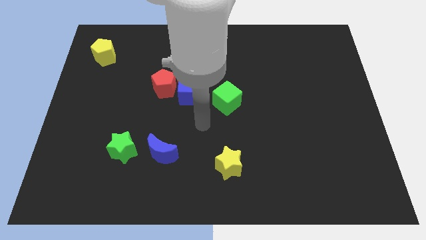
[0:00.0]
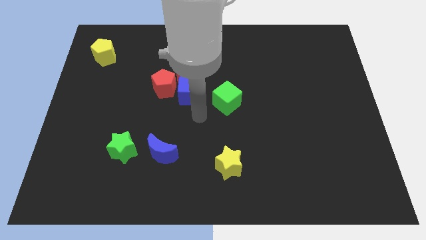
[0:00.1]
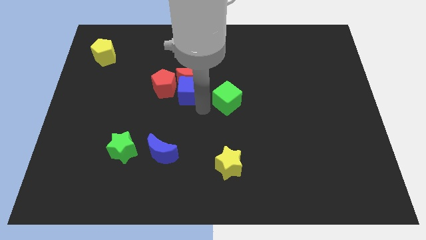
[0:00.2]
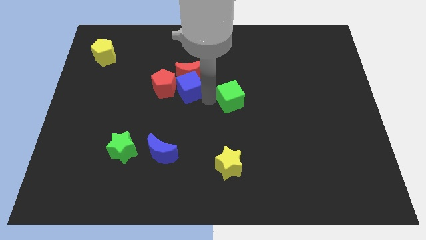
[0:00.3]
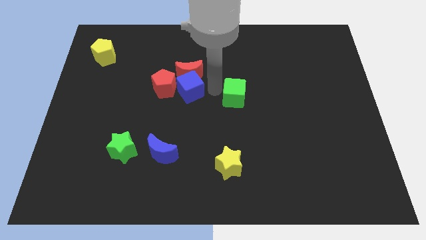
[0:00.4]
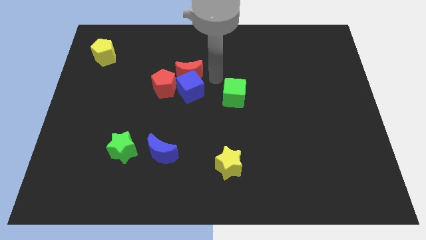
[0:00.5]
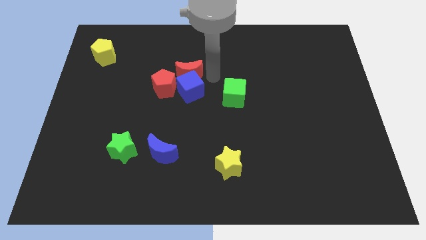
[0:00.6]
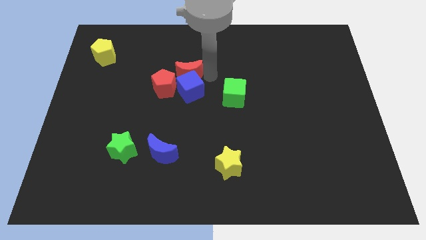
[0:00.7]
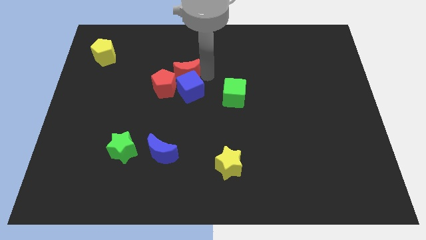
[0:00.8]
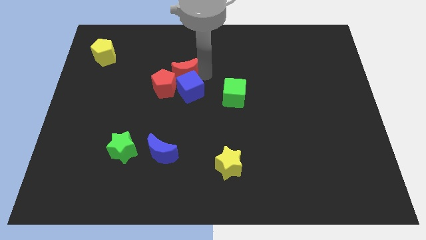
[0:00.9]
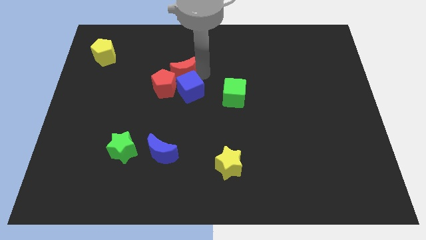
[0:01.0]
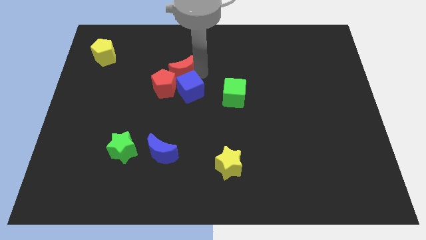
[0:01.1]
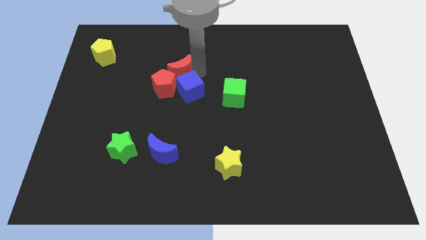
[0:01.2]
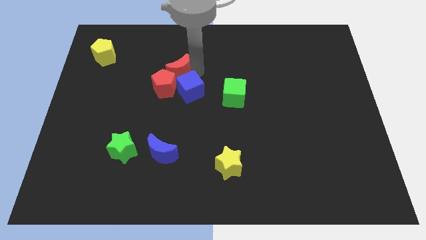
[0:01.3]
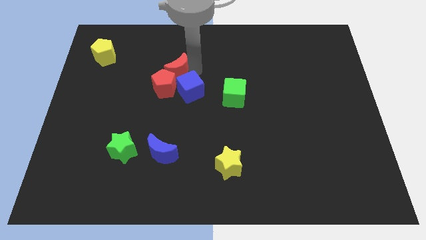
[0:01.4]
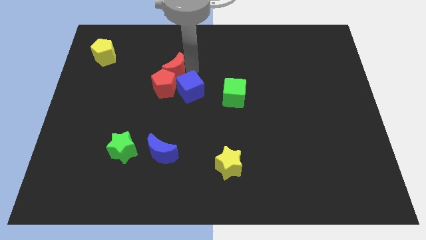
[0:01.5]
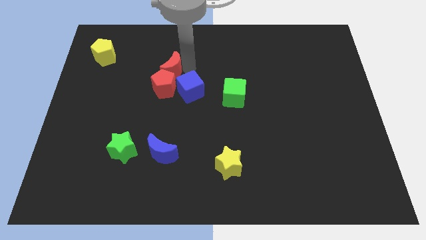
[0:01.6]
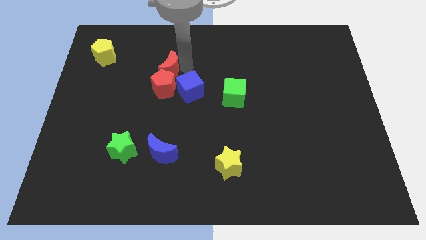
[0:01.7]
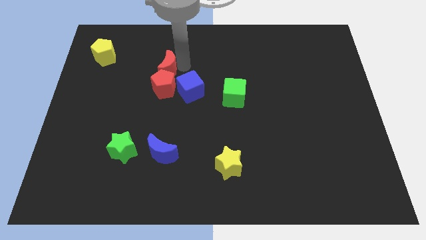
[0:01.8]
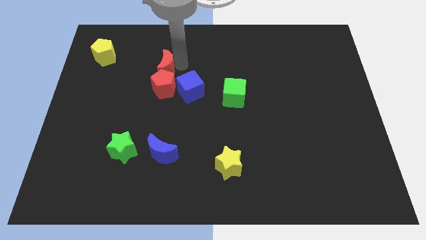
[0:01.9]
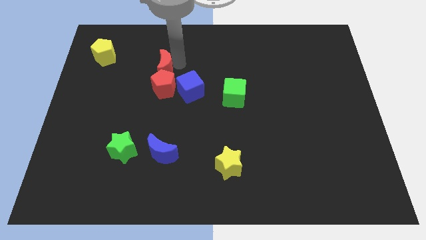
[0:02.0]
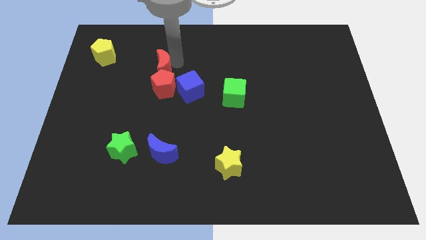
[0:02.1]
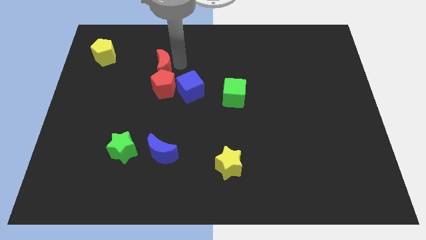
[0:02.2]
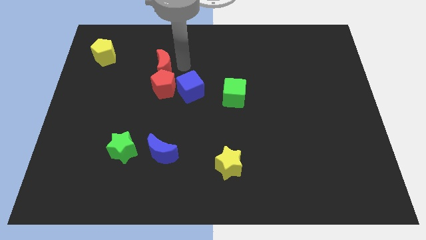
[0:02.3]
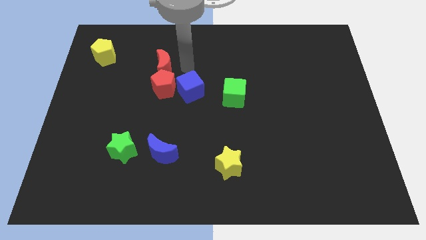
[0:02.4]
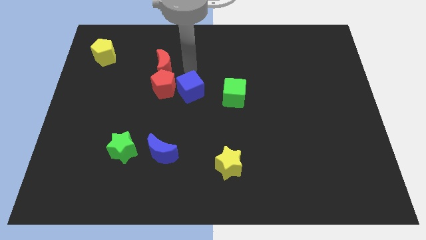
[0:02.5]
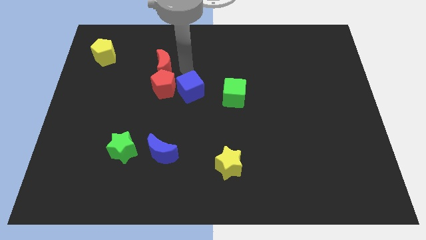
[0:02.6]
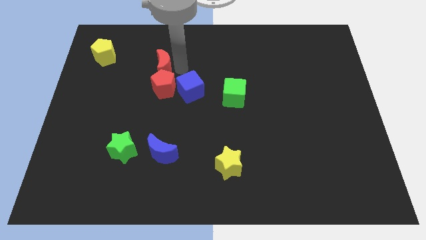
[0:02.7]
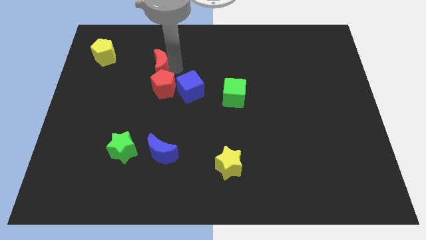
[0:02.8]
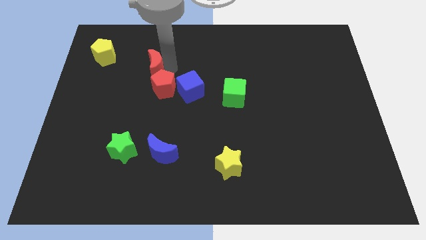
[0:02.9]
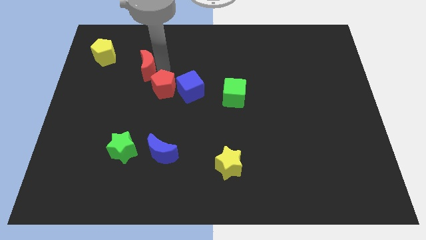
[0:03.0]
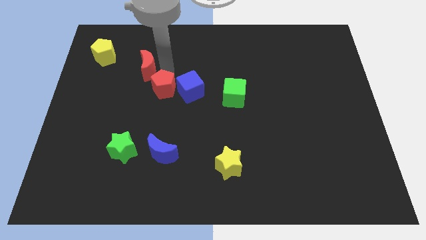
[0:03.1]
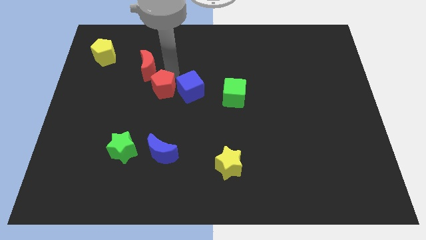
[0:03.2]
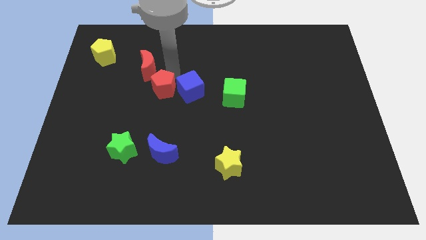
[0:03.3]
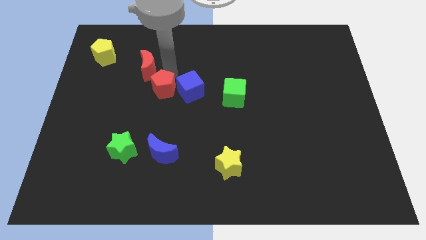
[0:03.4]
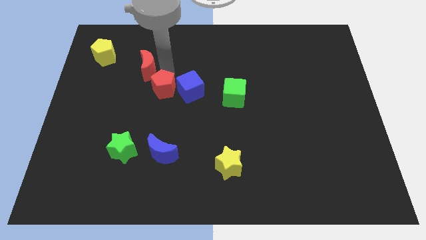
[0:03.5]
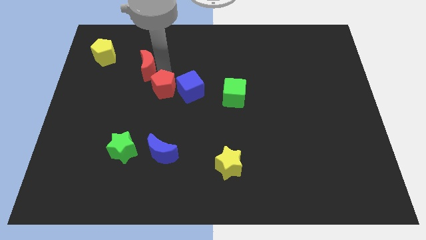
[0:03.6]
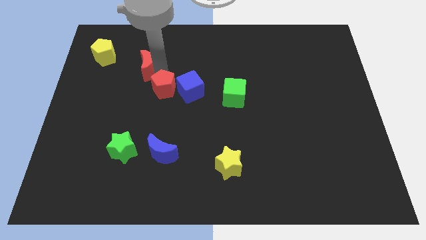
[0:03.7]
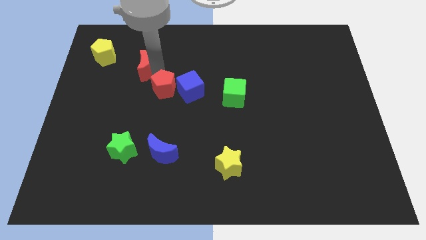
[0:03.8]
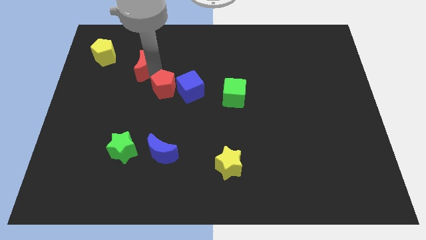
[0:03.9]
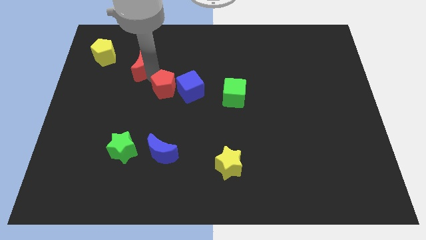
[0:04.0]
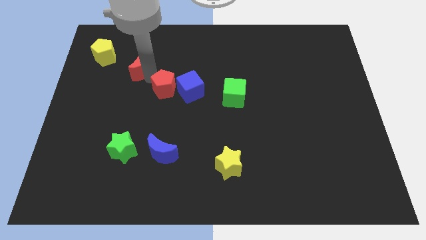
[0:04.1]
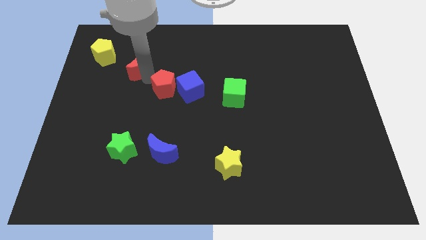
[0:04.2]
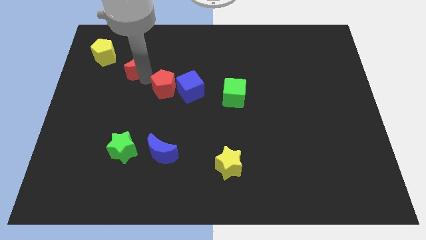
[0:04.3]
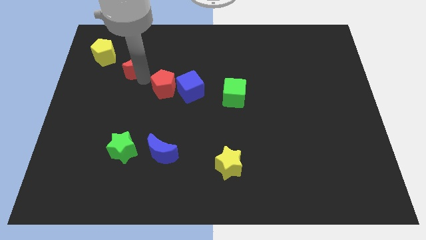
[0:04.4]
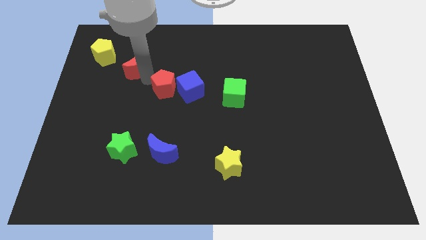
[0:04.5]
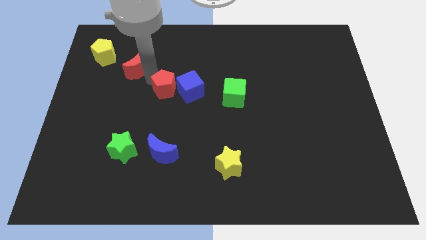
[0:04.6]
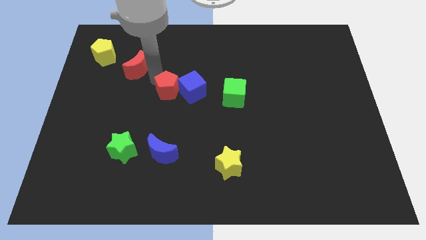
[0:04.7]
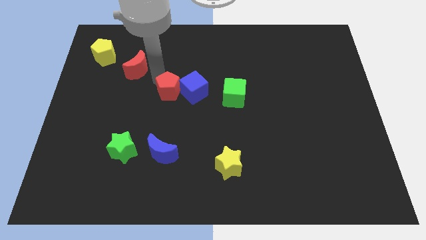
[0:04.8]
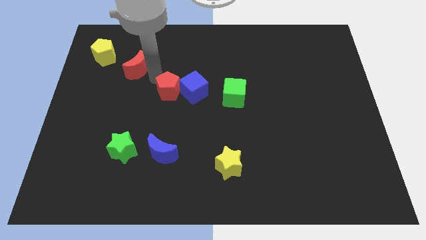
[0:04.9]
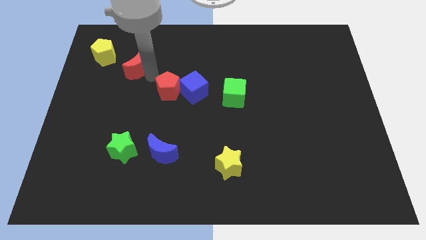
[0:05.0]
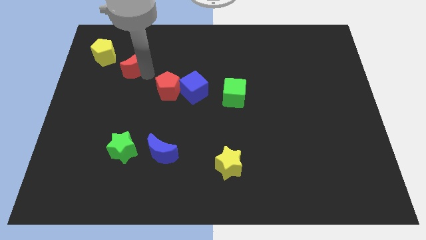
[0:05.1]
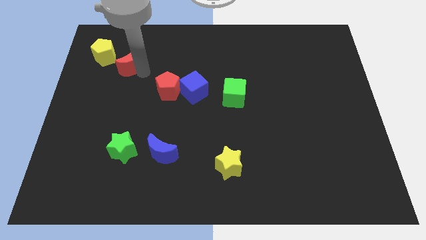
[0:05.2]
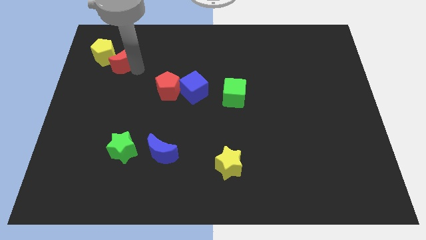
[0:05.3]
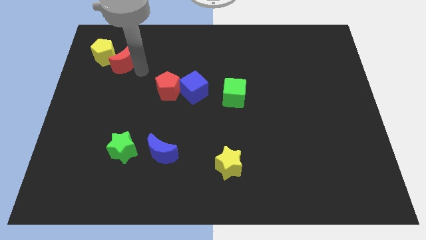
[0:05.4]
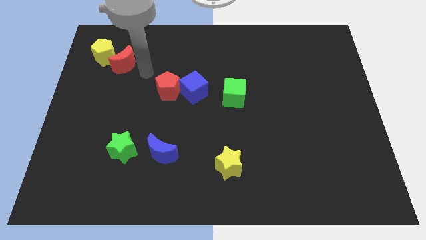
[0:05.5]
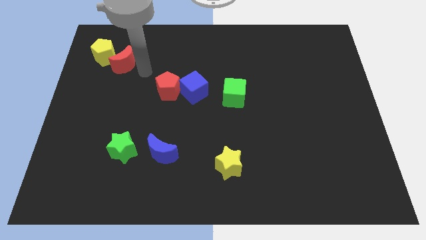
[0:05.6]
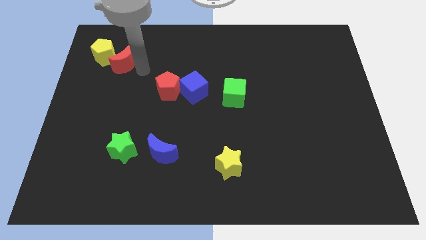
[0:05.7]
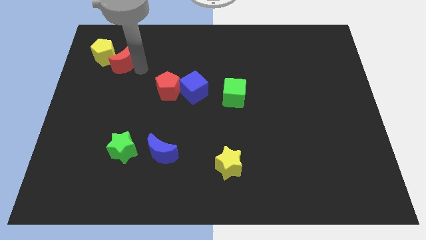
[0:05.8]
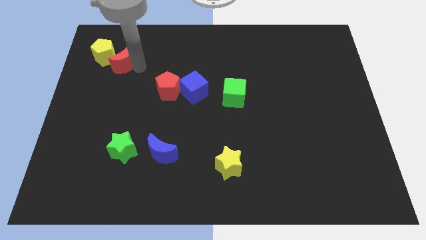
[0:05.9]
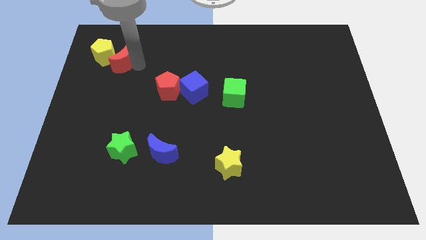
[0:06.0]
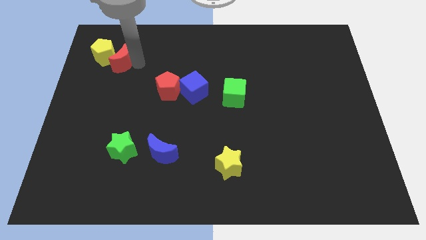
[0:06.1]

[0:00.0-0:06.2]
slide the red moon to the yellow pentagon
